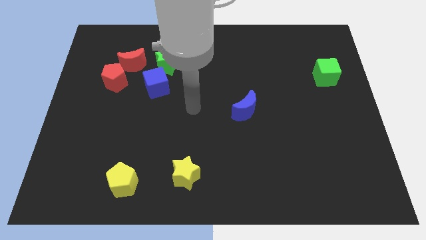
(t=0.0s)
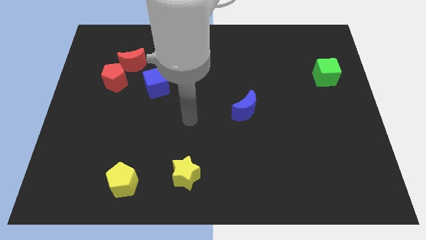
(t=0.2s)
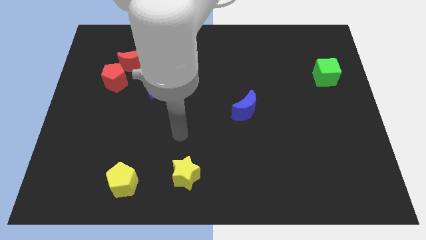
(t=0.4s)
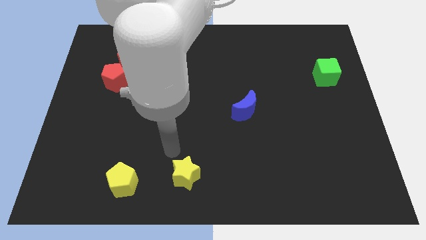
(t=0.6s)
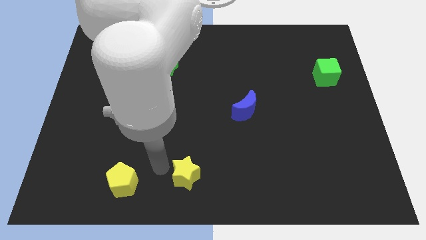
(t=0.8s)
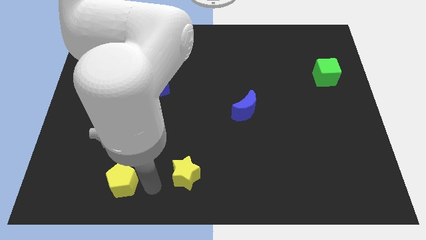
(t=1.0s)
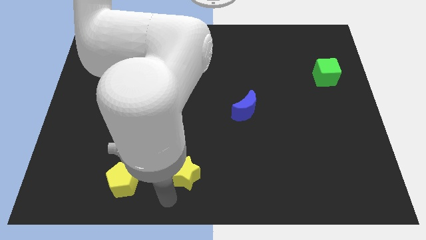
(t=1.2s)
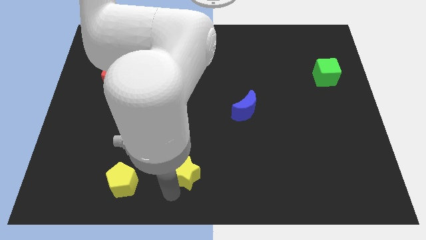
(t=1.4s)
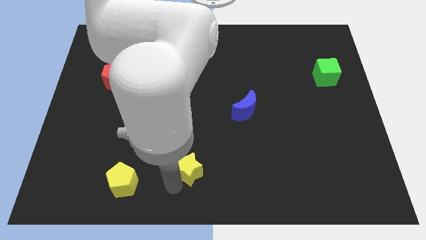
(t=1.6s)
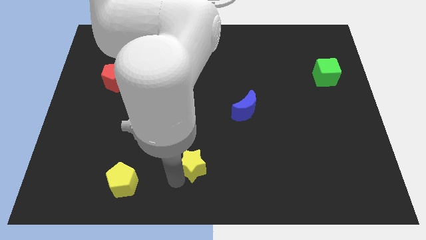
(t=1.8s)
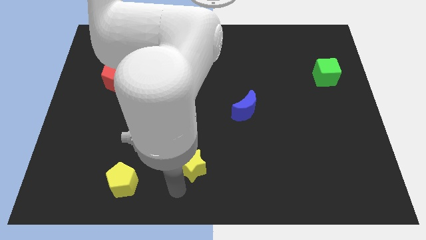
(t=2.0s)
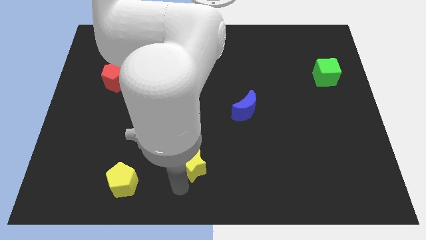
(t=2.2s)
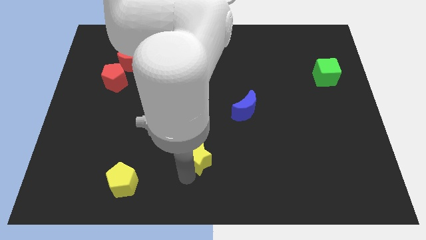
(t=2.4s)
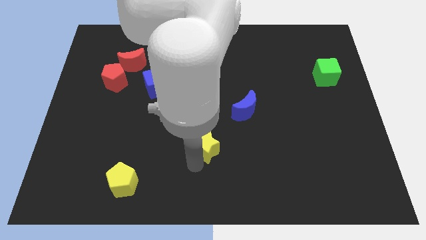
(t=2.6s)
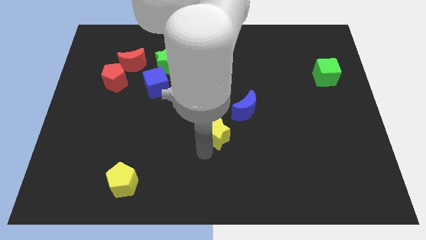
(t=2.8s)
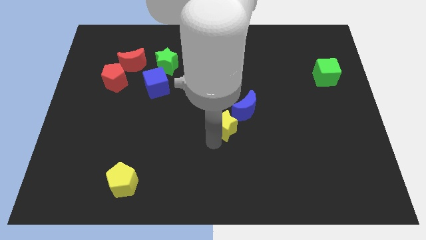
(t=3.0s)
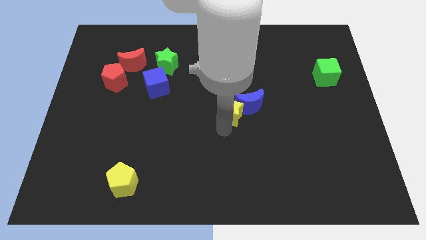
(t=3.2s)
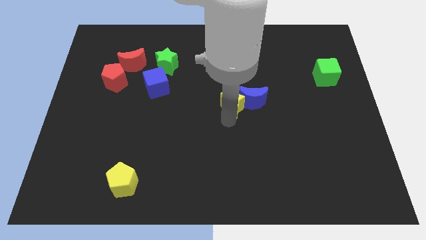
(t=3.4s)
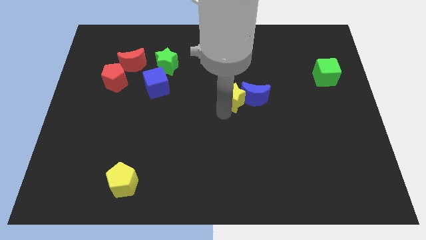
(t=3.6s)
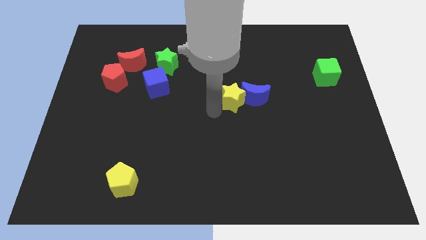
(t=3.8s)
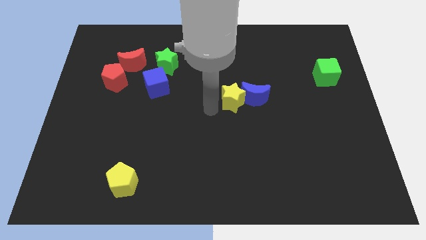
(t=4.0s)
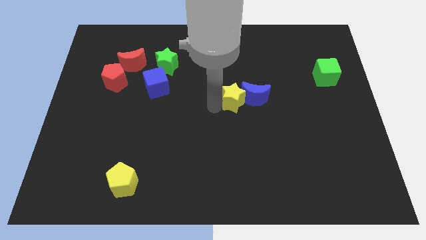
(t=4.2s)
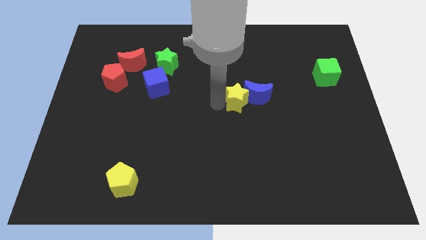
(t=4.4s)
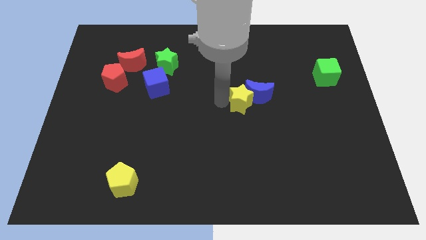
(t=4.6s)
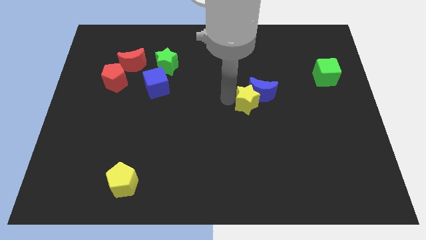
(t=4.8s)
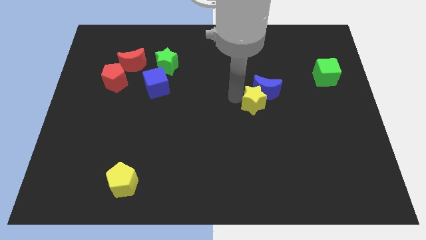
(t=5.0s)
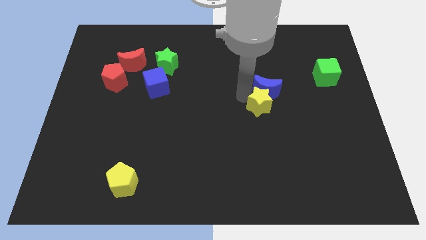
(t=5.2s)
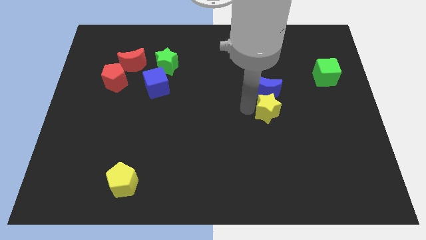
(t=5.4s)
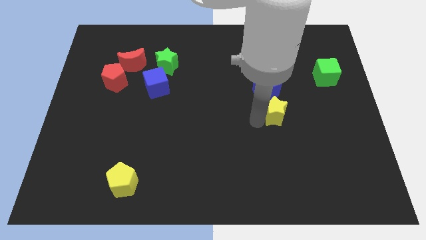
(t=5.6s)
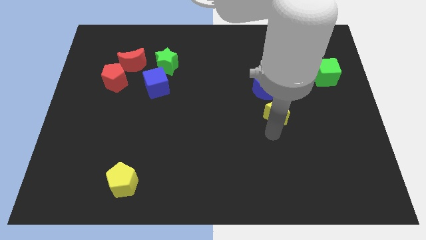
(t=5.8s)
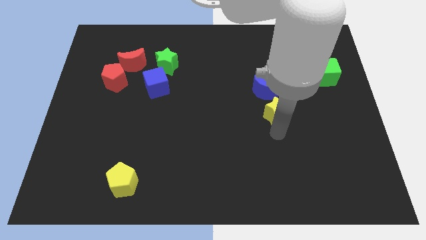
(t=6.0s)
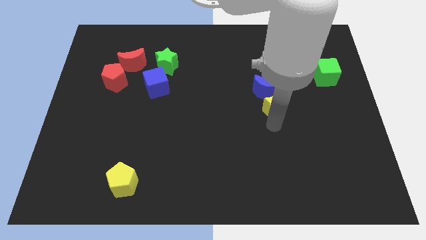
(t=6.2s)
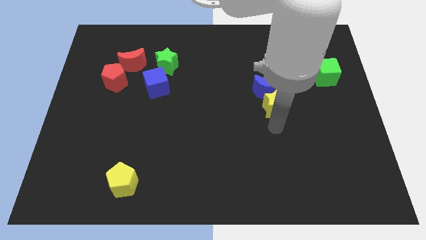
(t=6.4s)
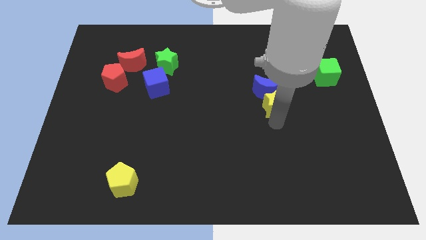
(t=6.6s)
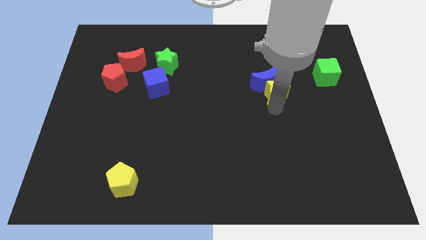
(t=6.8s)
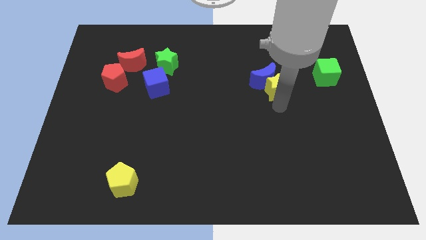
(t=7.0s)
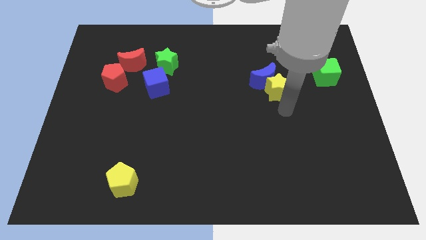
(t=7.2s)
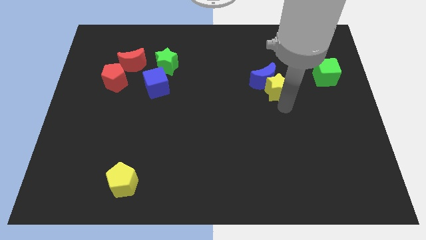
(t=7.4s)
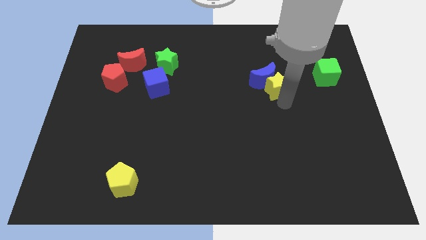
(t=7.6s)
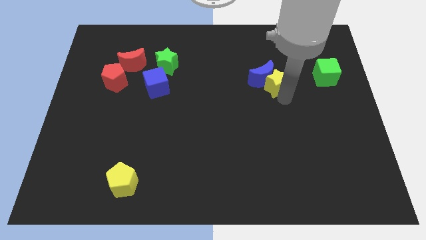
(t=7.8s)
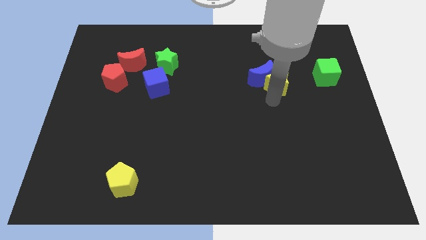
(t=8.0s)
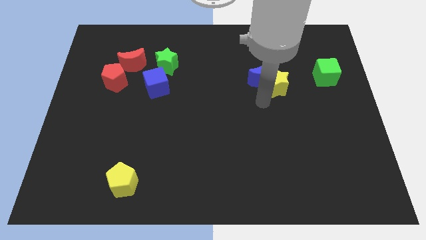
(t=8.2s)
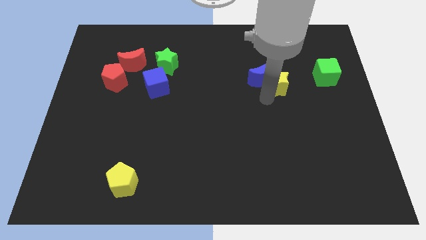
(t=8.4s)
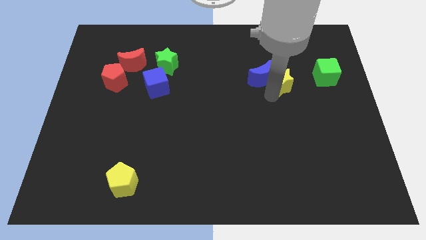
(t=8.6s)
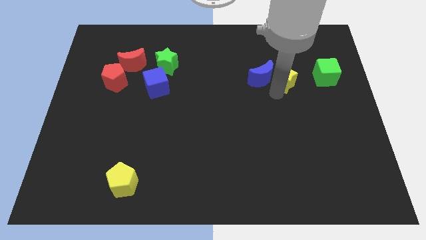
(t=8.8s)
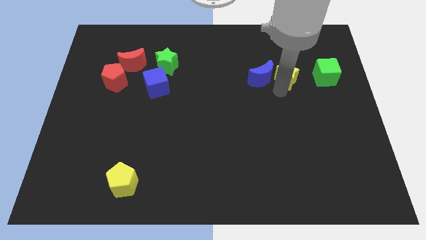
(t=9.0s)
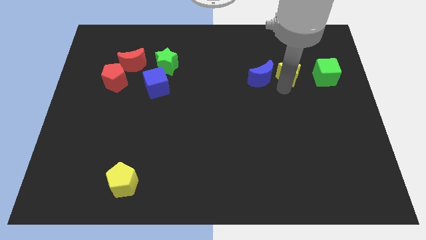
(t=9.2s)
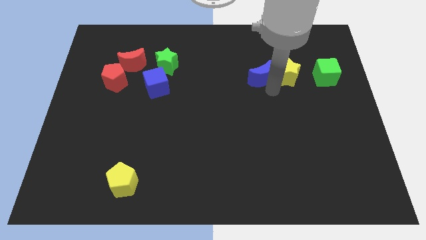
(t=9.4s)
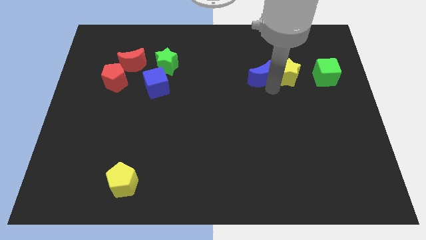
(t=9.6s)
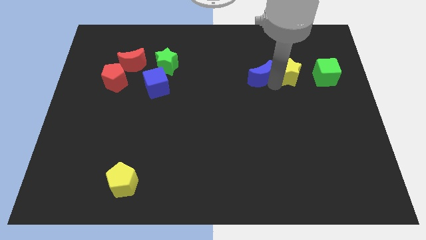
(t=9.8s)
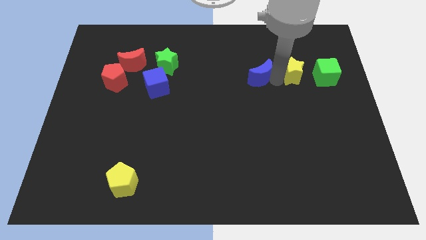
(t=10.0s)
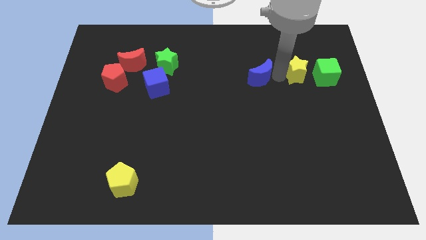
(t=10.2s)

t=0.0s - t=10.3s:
move the yellow star to the top left side of the green cube

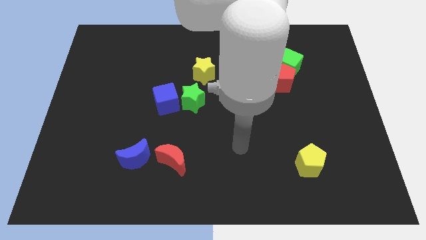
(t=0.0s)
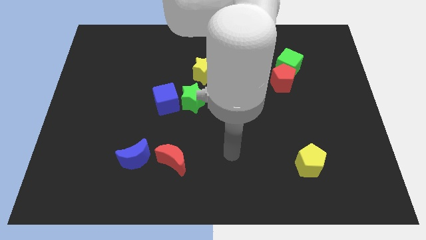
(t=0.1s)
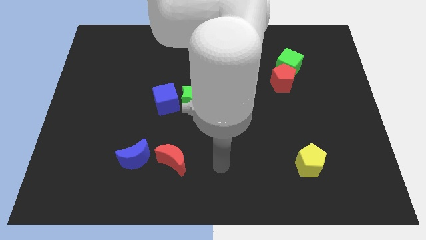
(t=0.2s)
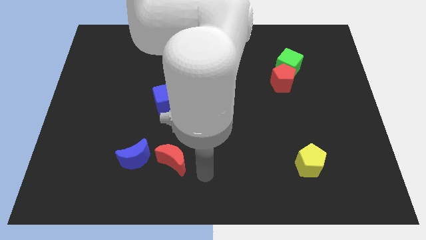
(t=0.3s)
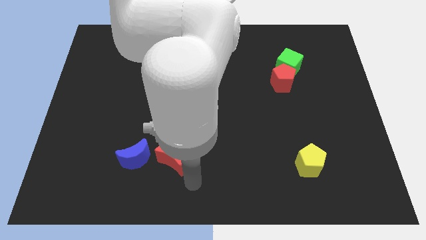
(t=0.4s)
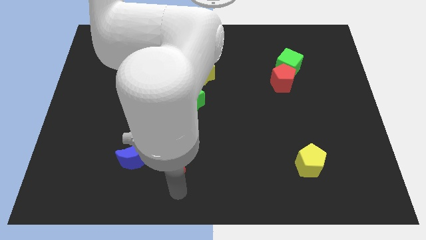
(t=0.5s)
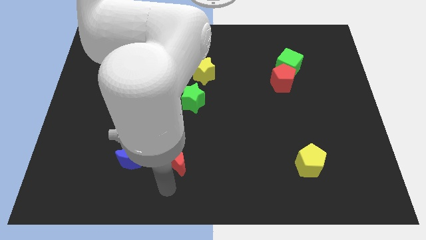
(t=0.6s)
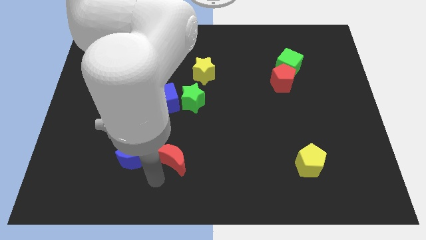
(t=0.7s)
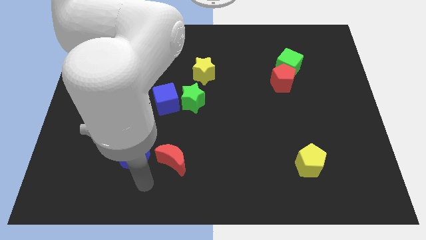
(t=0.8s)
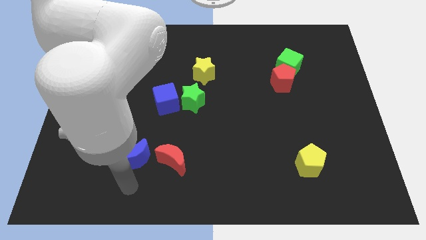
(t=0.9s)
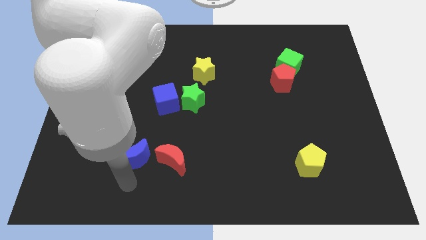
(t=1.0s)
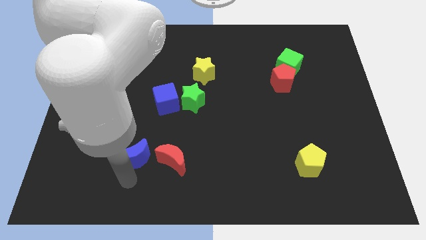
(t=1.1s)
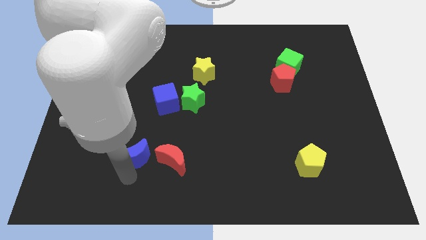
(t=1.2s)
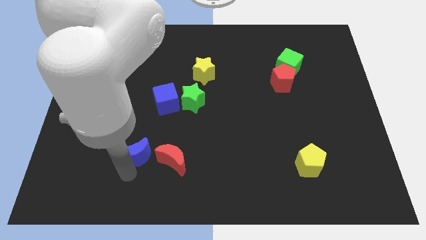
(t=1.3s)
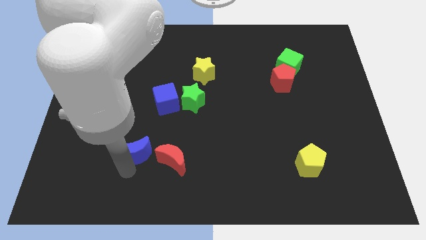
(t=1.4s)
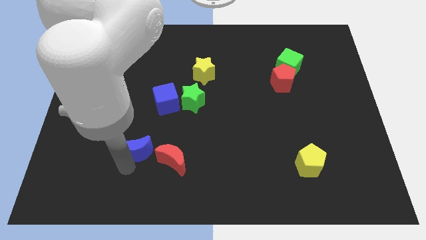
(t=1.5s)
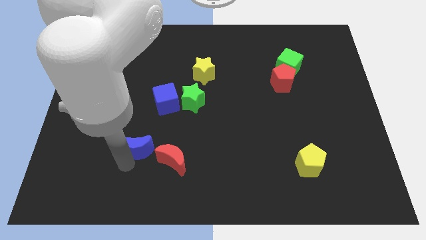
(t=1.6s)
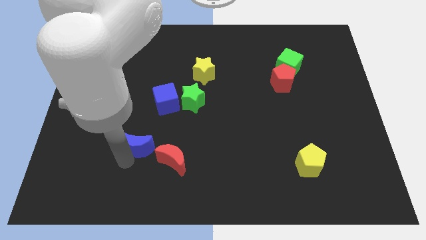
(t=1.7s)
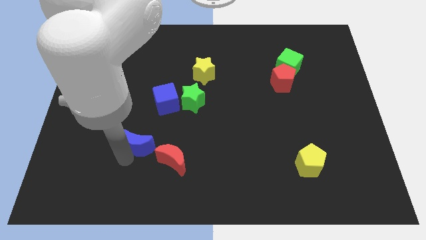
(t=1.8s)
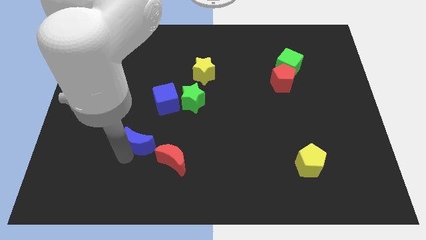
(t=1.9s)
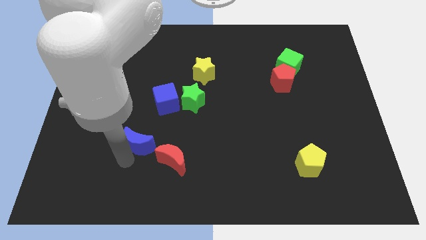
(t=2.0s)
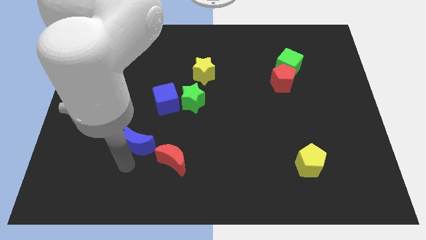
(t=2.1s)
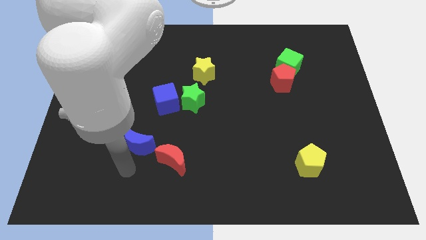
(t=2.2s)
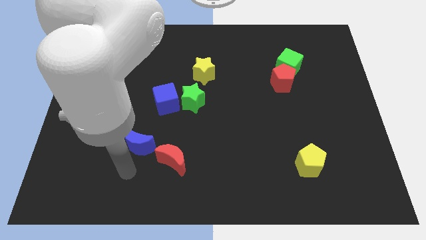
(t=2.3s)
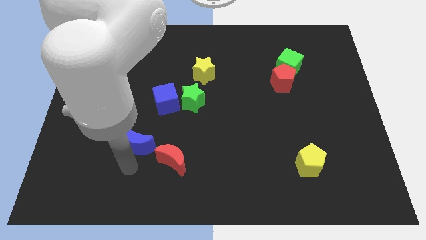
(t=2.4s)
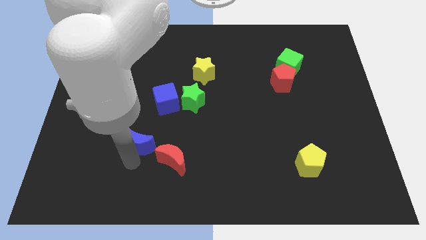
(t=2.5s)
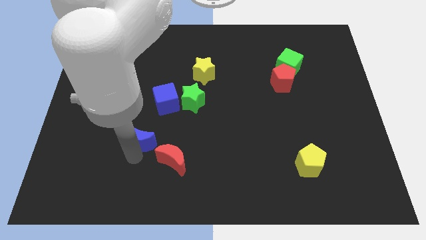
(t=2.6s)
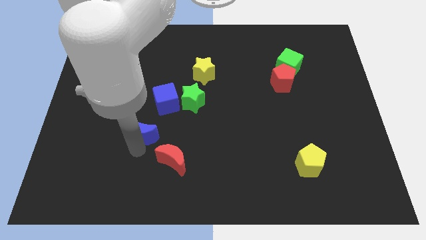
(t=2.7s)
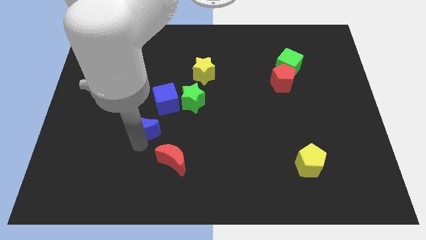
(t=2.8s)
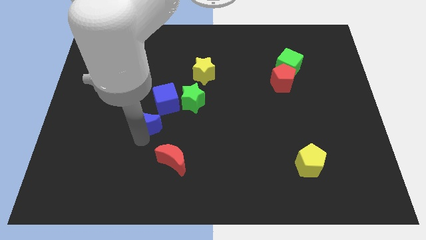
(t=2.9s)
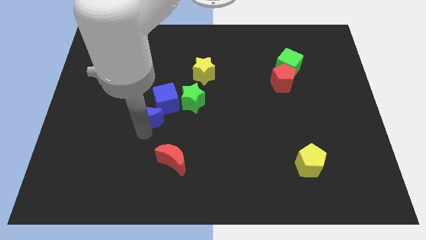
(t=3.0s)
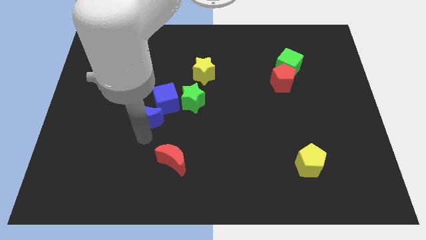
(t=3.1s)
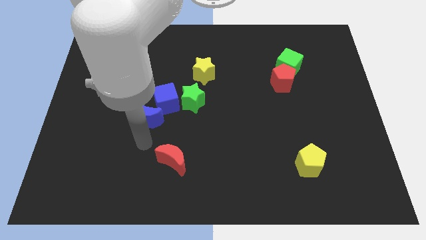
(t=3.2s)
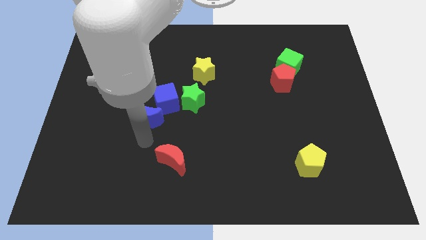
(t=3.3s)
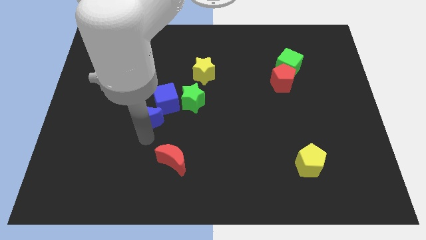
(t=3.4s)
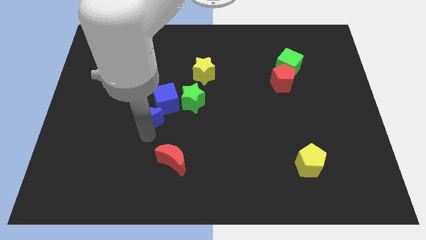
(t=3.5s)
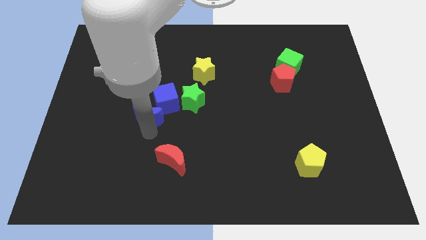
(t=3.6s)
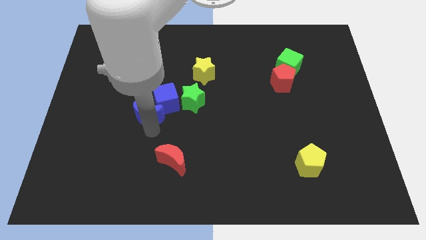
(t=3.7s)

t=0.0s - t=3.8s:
put the blue moon left of the green star
